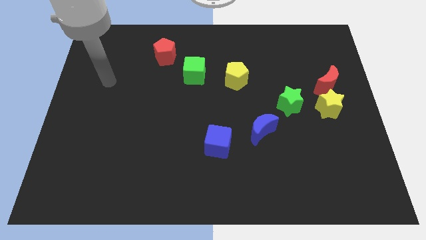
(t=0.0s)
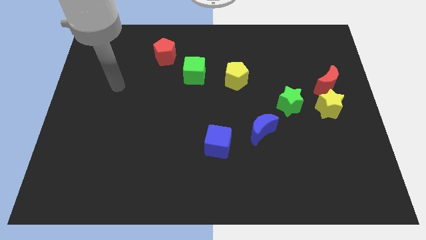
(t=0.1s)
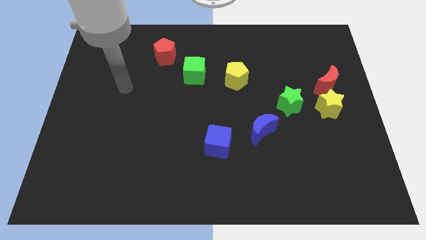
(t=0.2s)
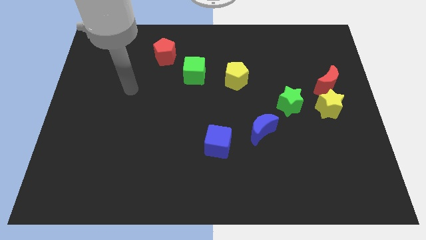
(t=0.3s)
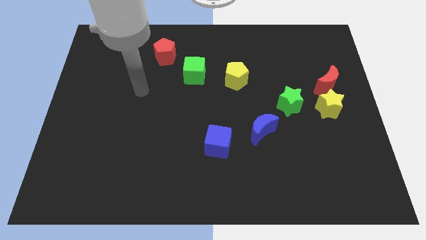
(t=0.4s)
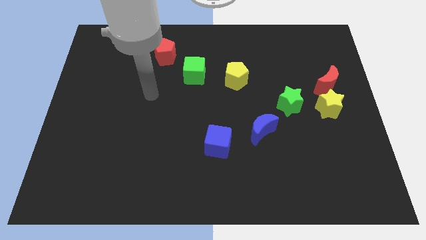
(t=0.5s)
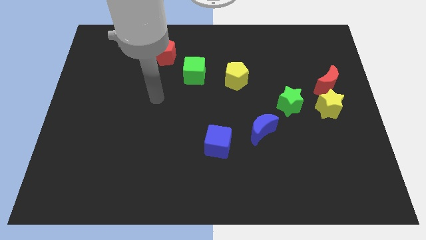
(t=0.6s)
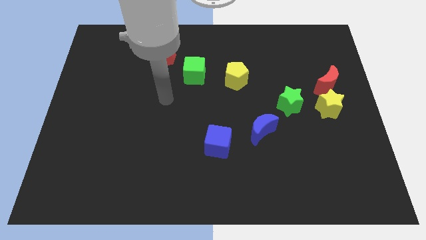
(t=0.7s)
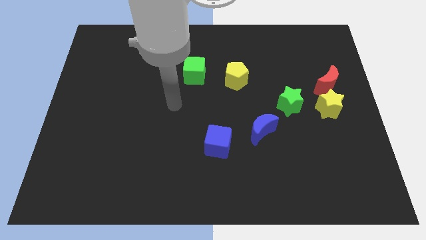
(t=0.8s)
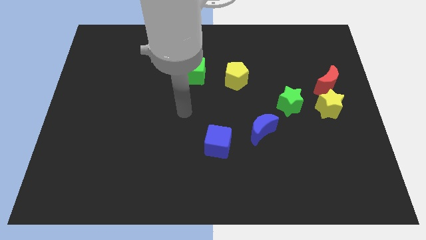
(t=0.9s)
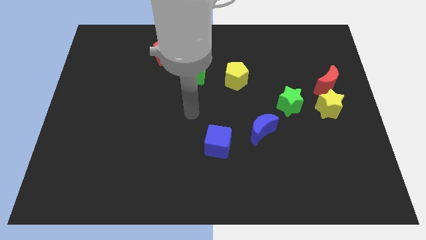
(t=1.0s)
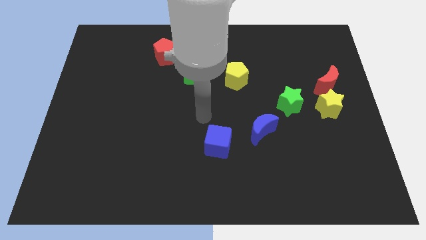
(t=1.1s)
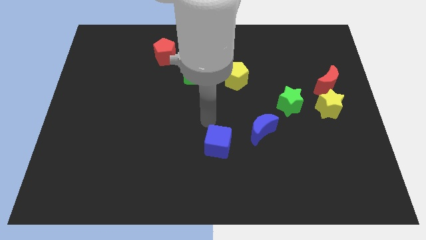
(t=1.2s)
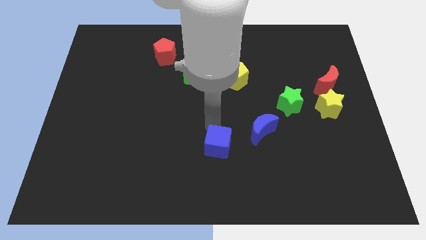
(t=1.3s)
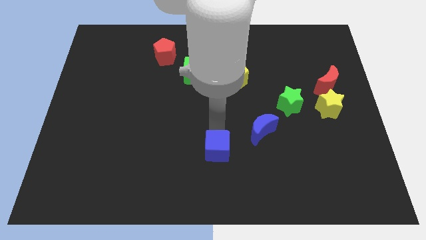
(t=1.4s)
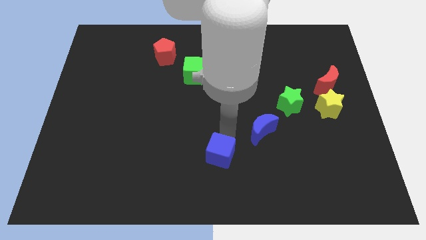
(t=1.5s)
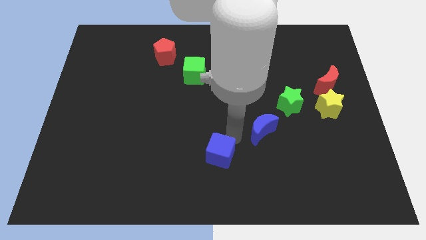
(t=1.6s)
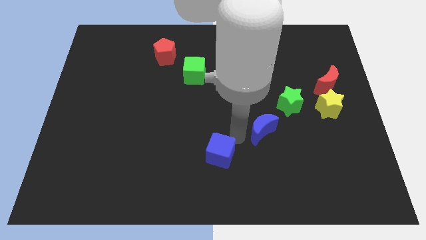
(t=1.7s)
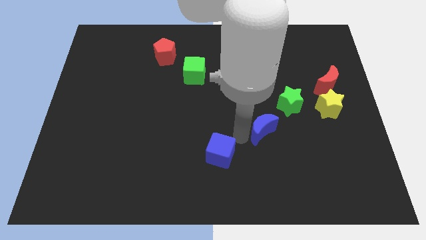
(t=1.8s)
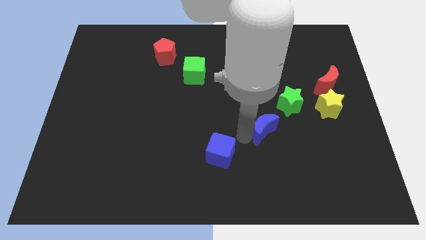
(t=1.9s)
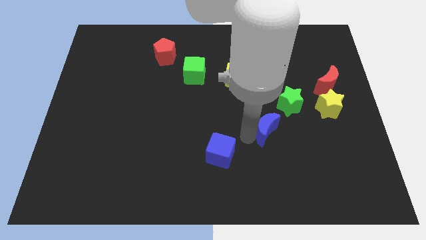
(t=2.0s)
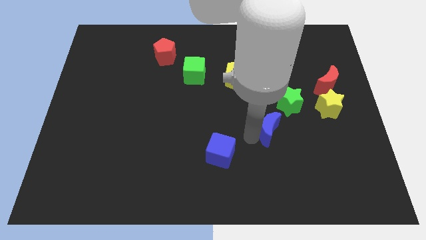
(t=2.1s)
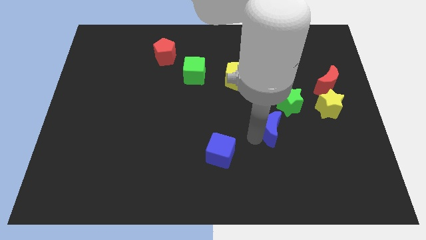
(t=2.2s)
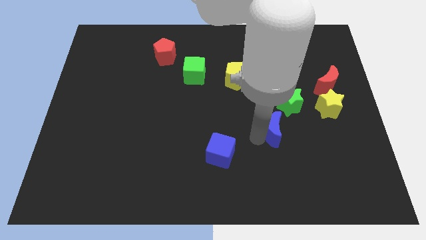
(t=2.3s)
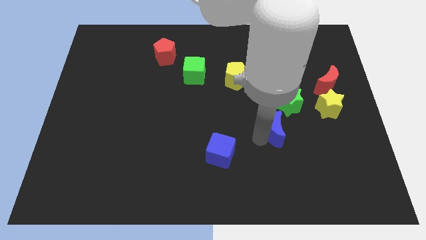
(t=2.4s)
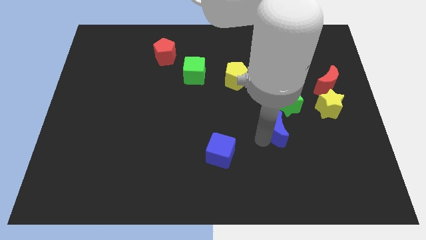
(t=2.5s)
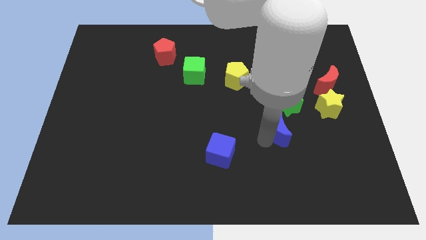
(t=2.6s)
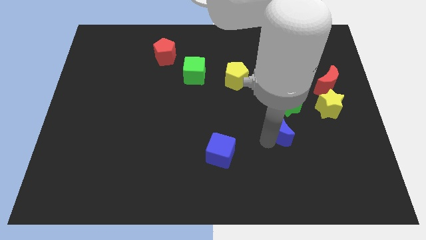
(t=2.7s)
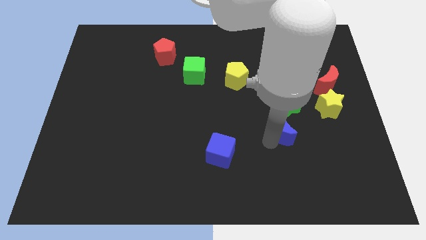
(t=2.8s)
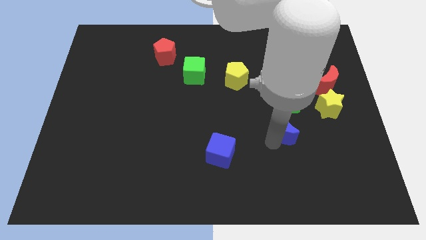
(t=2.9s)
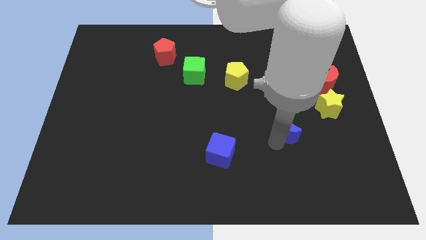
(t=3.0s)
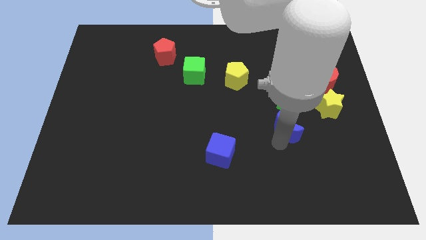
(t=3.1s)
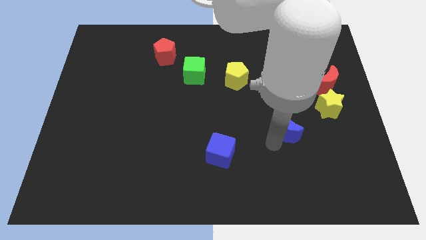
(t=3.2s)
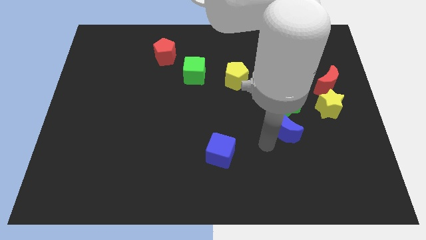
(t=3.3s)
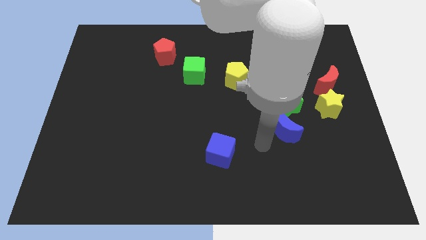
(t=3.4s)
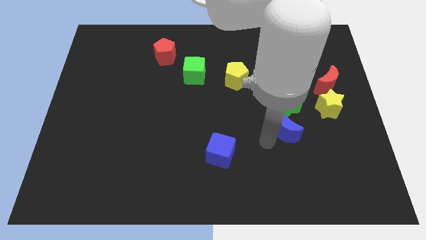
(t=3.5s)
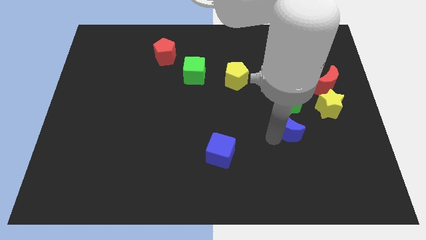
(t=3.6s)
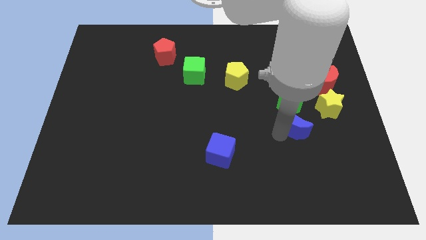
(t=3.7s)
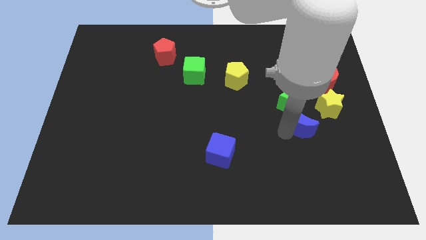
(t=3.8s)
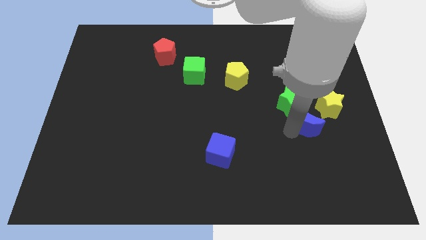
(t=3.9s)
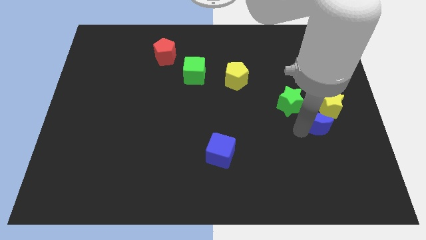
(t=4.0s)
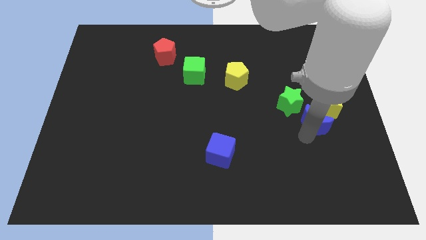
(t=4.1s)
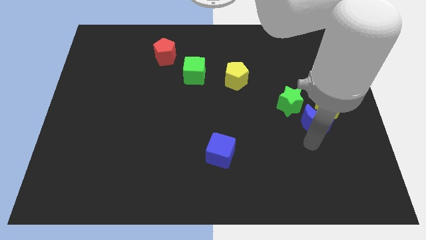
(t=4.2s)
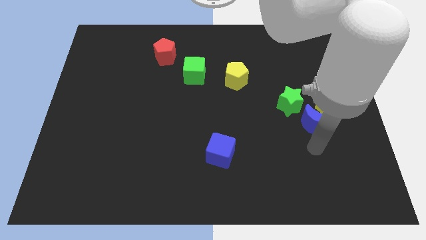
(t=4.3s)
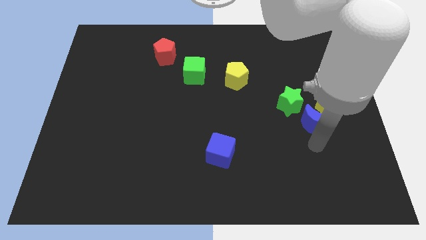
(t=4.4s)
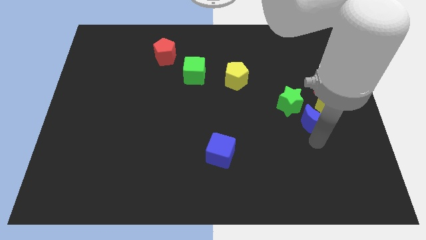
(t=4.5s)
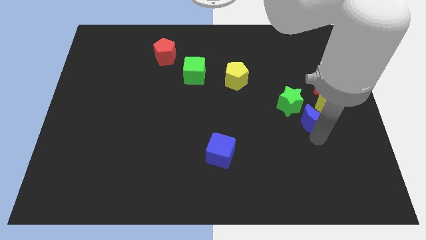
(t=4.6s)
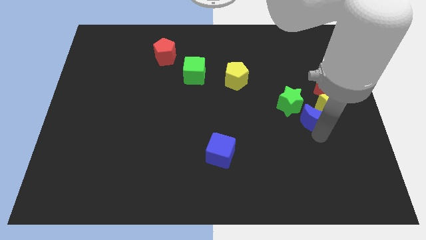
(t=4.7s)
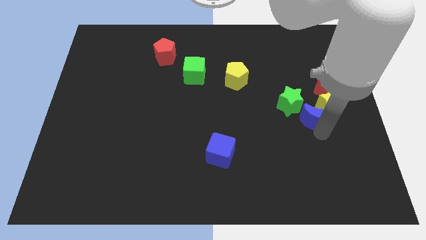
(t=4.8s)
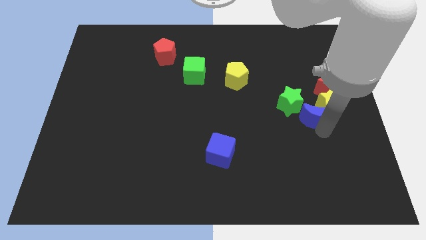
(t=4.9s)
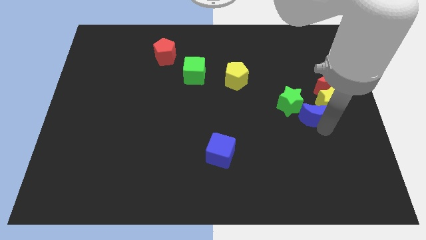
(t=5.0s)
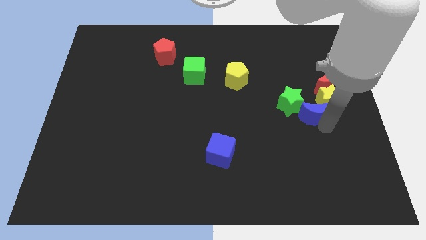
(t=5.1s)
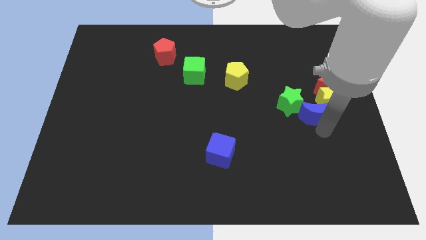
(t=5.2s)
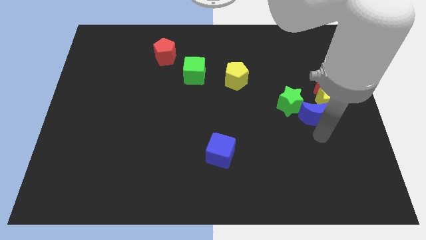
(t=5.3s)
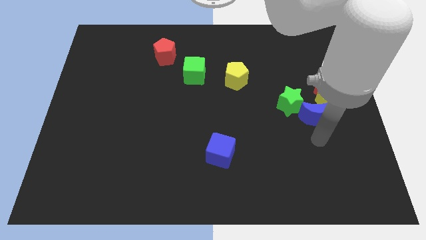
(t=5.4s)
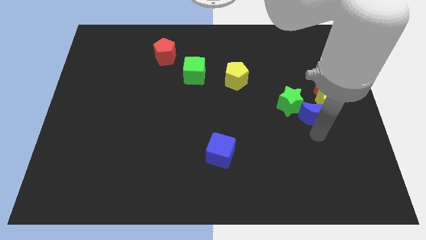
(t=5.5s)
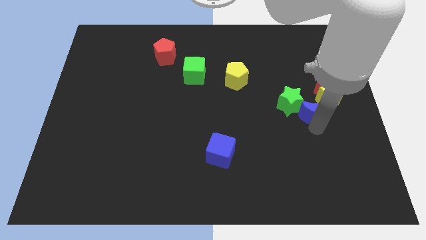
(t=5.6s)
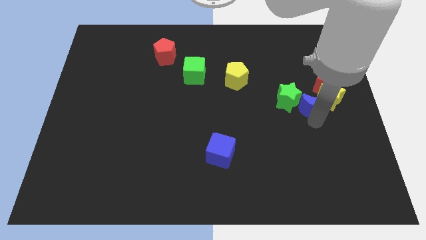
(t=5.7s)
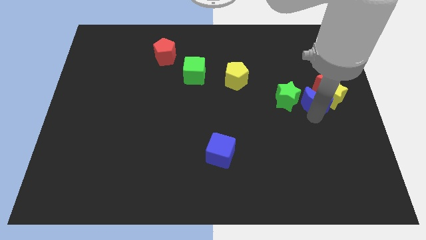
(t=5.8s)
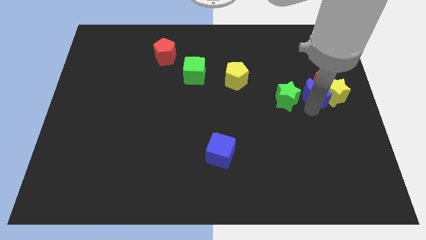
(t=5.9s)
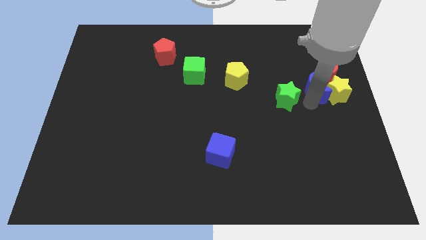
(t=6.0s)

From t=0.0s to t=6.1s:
move the blue moon to the red moon

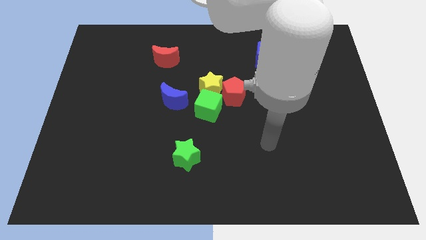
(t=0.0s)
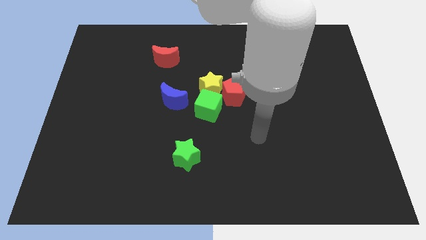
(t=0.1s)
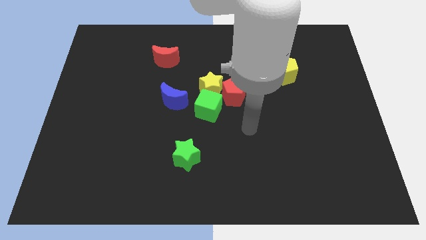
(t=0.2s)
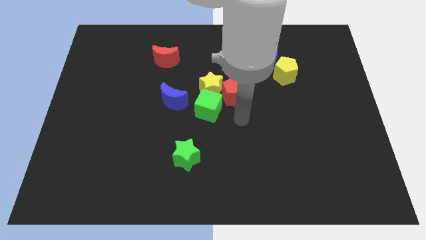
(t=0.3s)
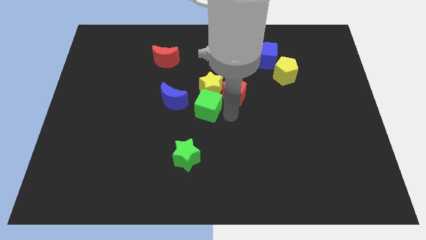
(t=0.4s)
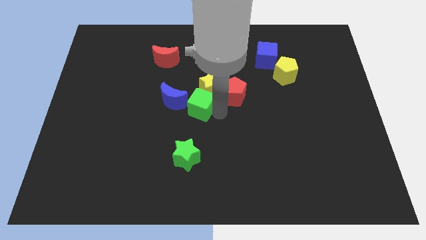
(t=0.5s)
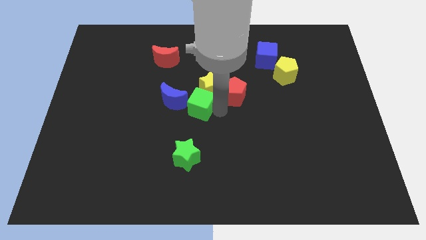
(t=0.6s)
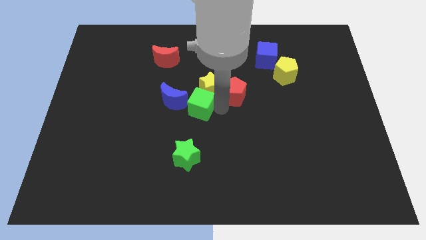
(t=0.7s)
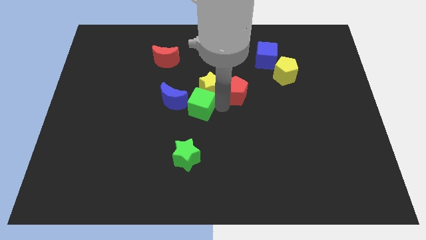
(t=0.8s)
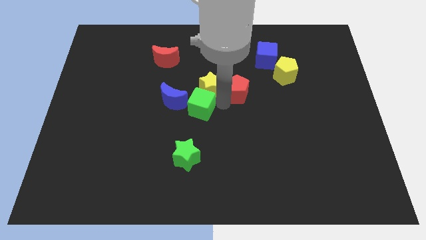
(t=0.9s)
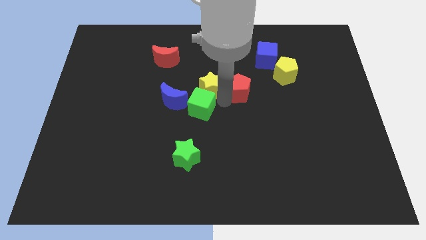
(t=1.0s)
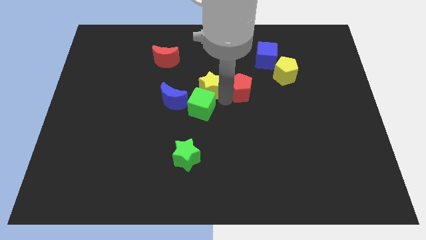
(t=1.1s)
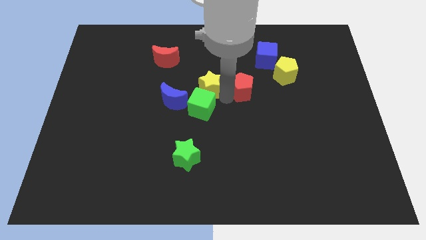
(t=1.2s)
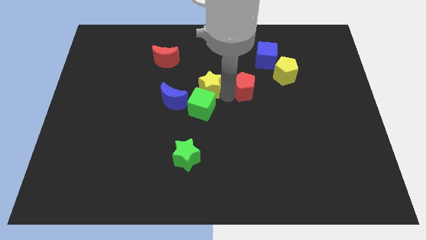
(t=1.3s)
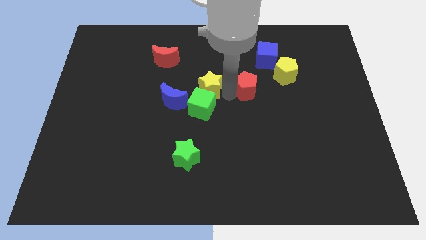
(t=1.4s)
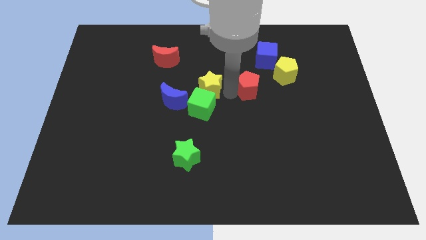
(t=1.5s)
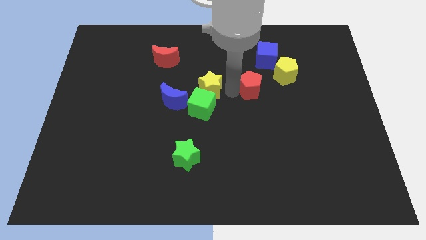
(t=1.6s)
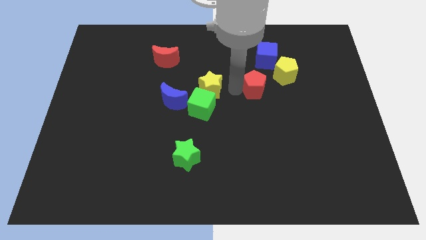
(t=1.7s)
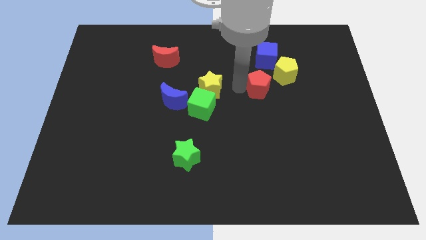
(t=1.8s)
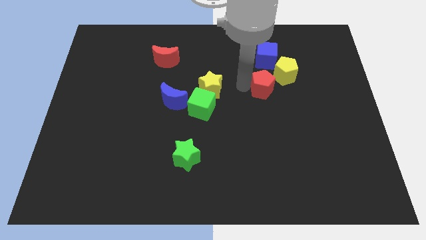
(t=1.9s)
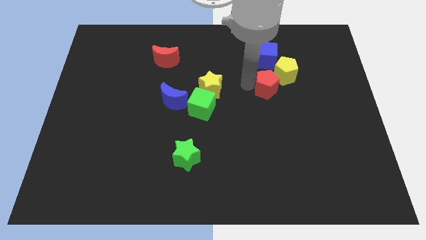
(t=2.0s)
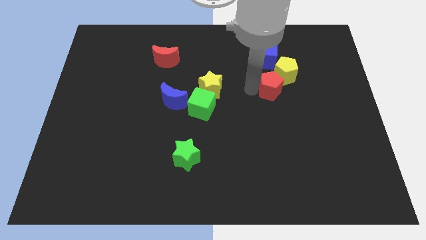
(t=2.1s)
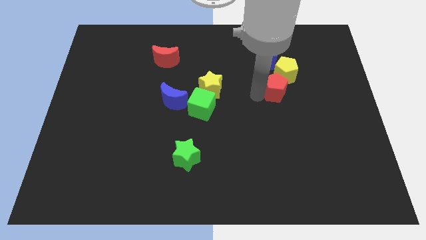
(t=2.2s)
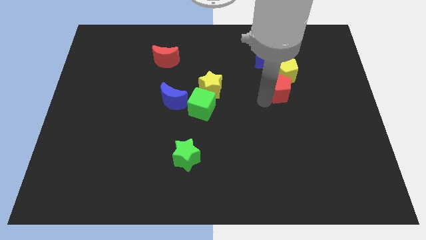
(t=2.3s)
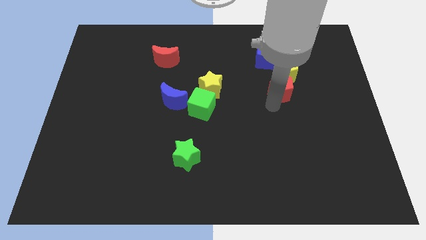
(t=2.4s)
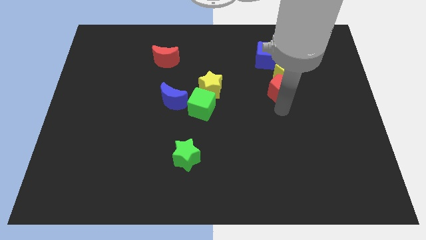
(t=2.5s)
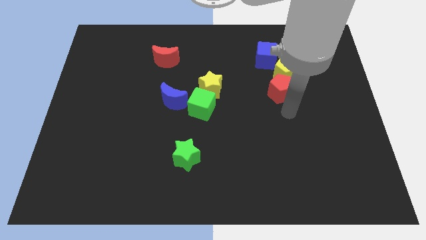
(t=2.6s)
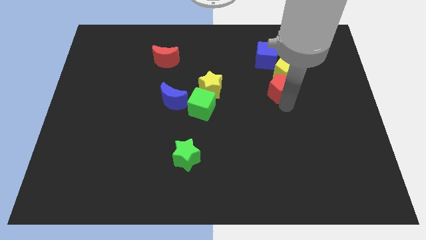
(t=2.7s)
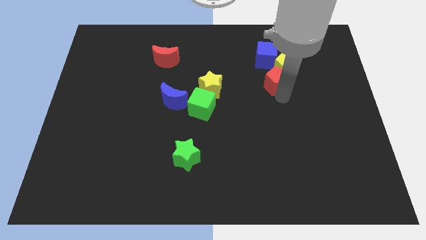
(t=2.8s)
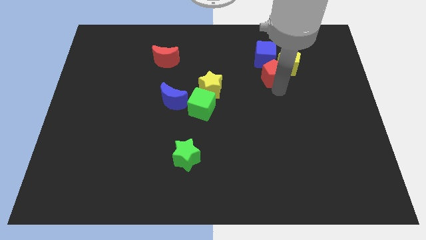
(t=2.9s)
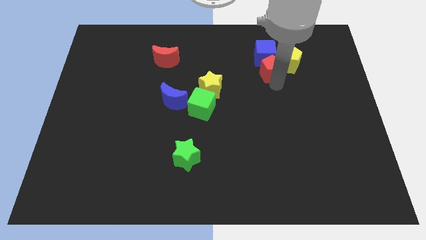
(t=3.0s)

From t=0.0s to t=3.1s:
move the red pentagon towards the blue cube
